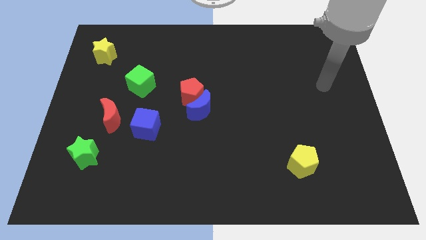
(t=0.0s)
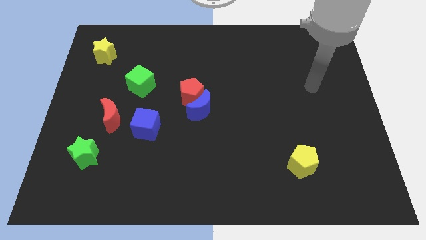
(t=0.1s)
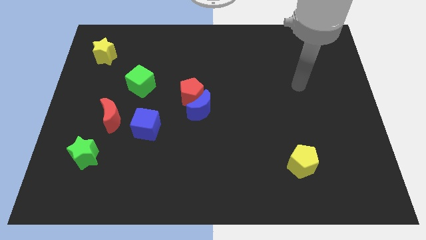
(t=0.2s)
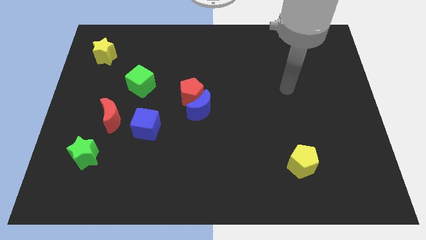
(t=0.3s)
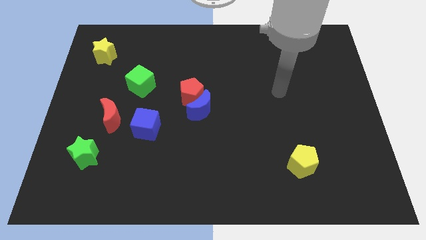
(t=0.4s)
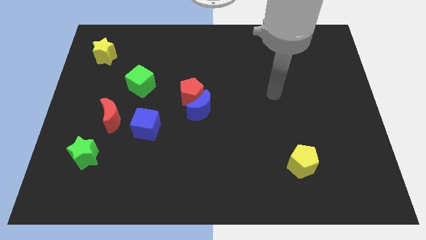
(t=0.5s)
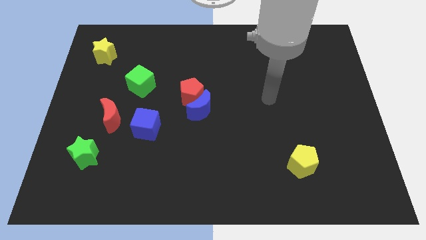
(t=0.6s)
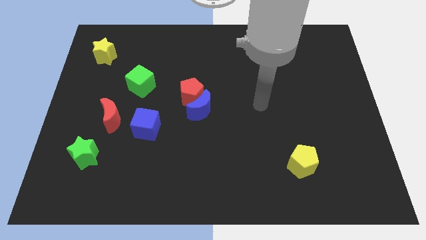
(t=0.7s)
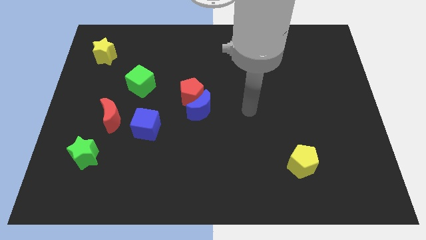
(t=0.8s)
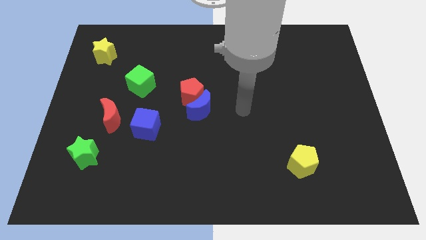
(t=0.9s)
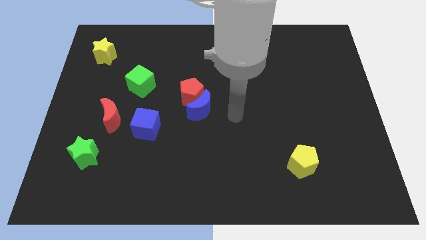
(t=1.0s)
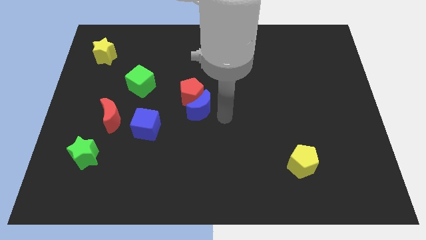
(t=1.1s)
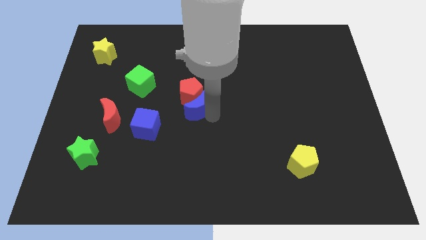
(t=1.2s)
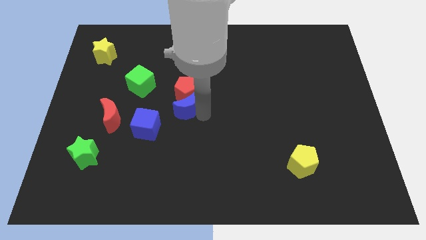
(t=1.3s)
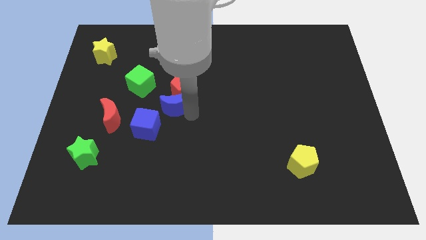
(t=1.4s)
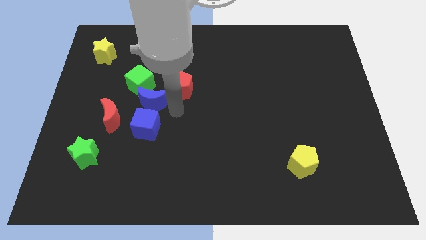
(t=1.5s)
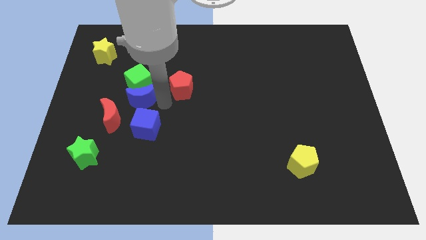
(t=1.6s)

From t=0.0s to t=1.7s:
move the red pentagon away from the blue moon

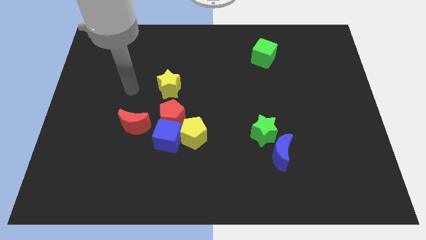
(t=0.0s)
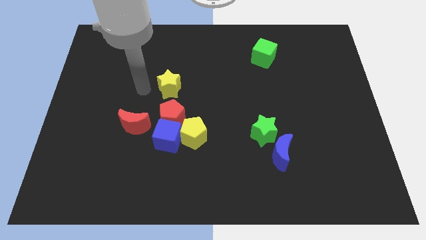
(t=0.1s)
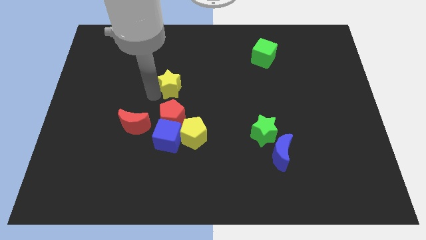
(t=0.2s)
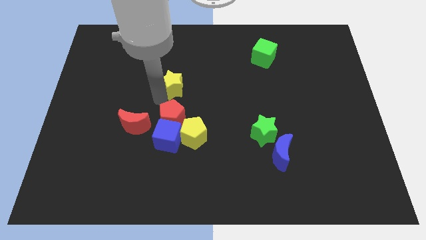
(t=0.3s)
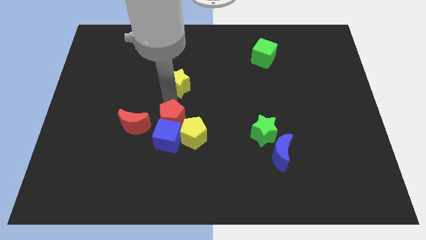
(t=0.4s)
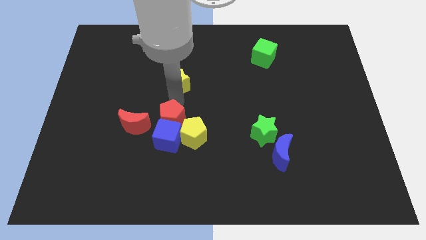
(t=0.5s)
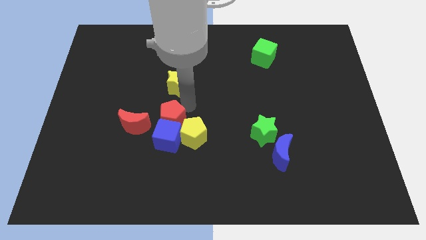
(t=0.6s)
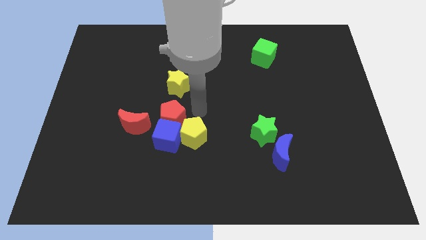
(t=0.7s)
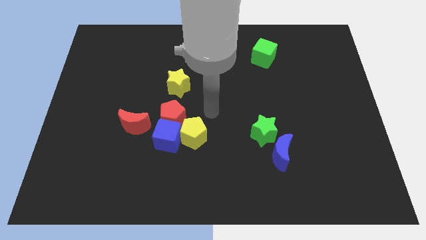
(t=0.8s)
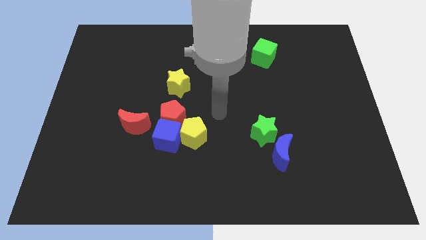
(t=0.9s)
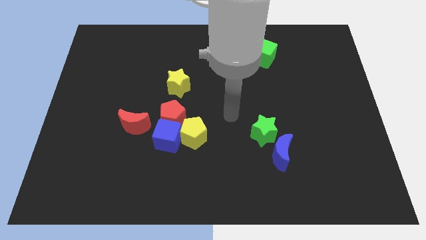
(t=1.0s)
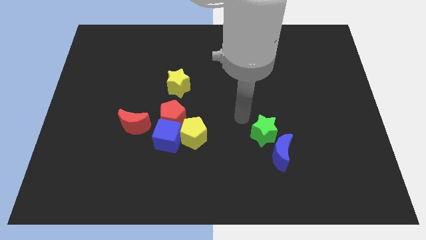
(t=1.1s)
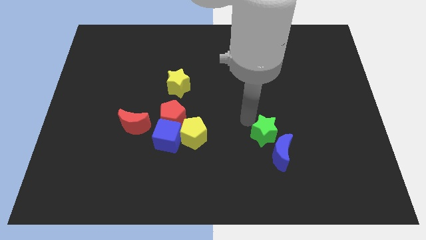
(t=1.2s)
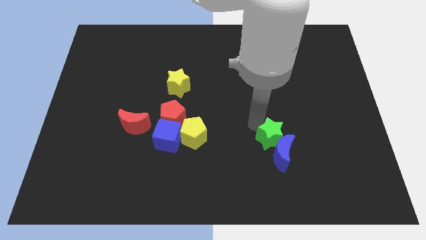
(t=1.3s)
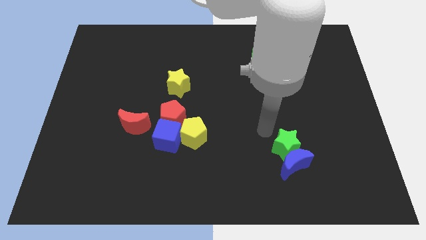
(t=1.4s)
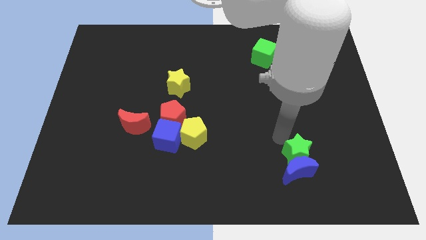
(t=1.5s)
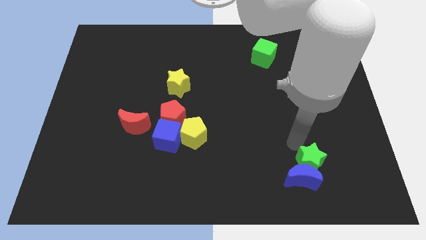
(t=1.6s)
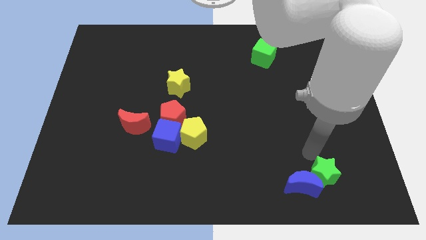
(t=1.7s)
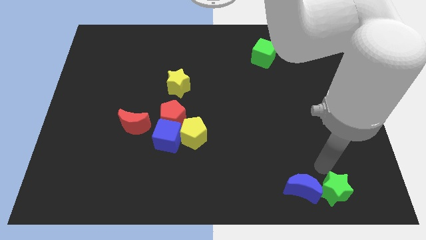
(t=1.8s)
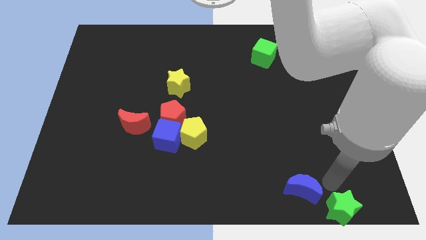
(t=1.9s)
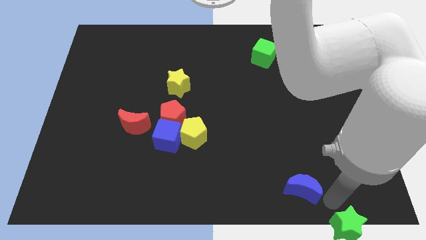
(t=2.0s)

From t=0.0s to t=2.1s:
separate the blue moon from the green star

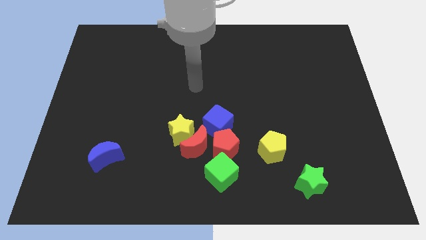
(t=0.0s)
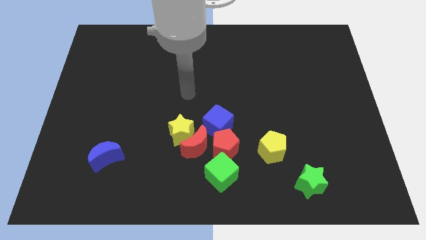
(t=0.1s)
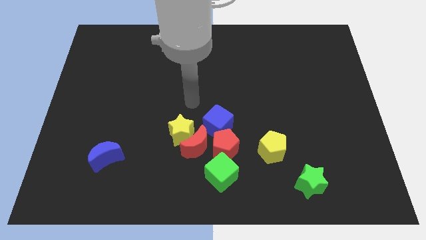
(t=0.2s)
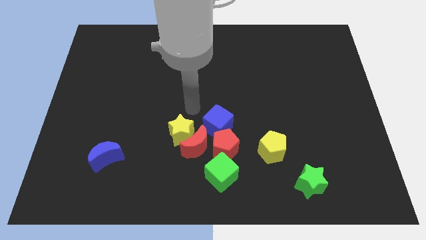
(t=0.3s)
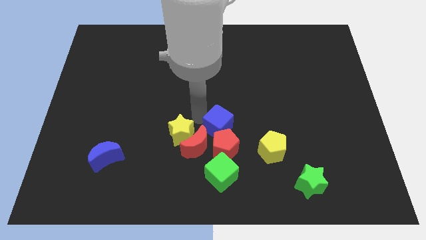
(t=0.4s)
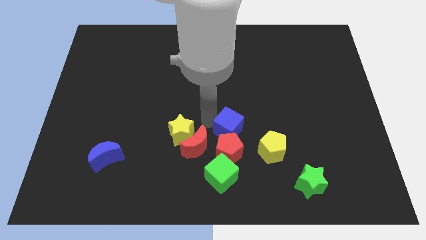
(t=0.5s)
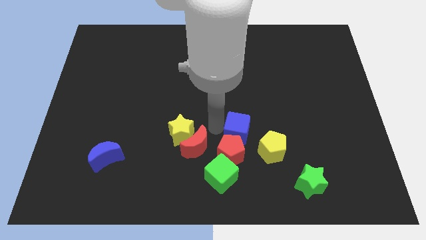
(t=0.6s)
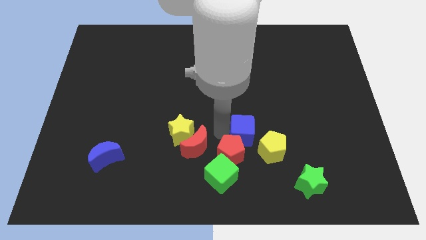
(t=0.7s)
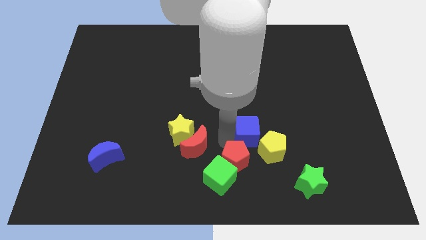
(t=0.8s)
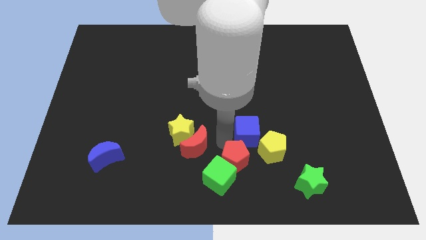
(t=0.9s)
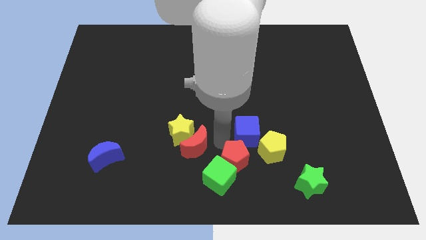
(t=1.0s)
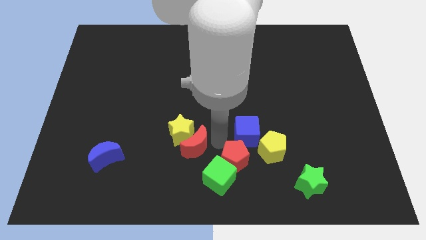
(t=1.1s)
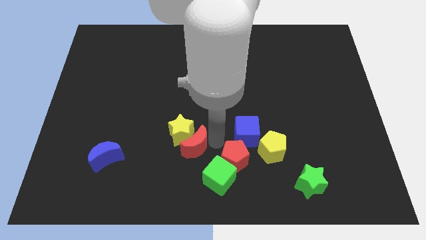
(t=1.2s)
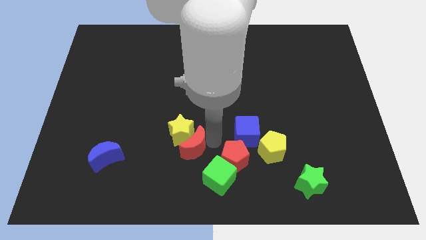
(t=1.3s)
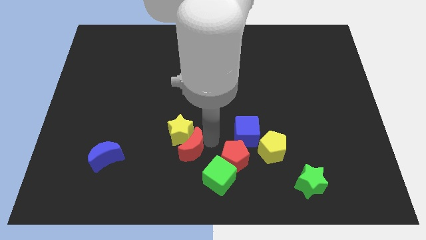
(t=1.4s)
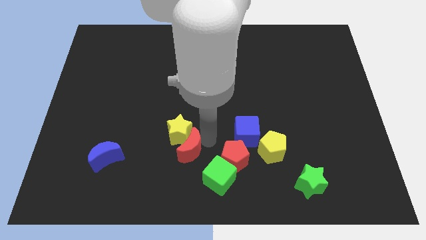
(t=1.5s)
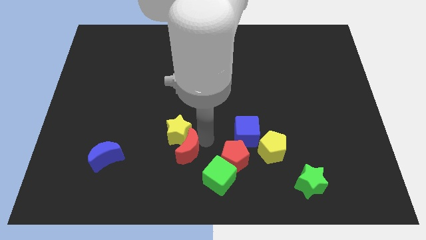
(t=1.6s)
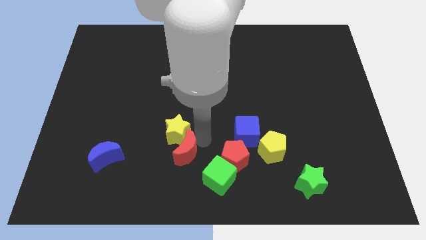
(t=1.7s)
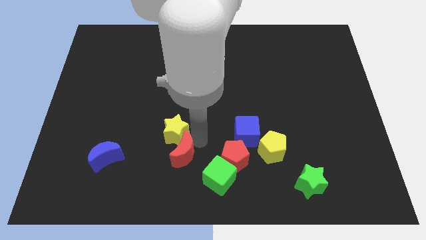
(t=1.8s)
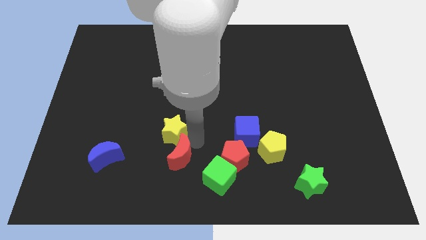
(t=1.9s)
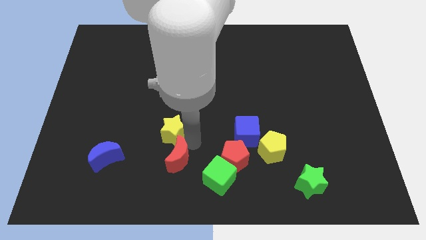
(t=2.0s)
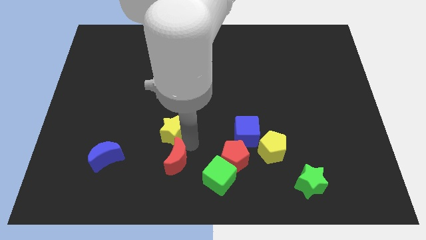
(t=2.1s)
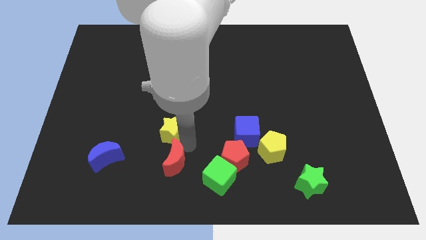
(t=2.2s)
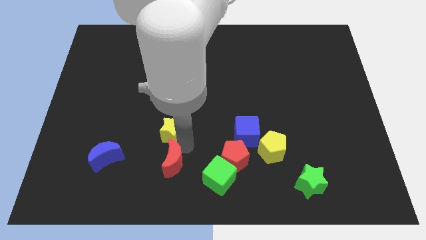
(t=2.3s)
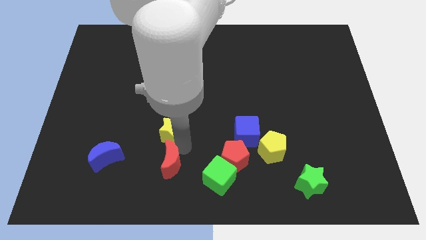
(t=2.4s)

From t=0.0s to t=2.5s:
pull the red moon apart from the clump

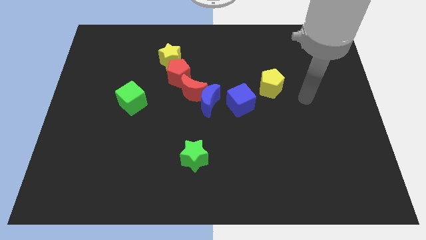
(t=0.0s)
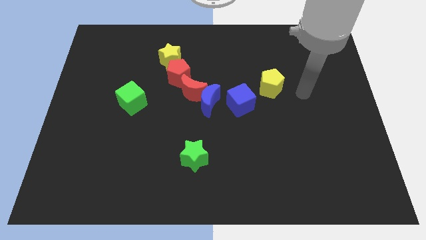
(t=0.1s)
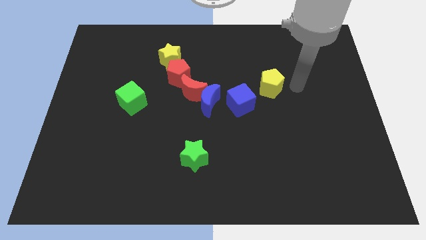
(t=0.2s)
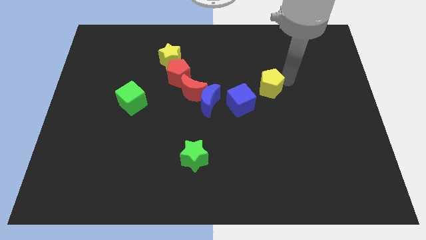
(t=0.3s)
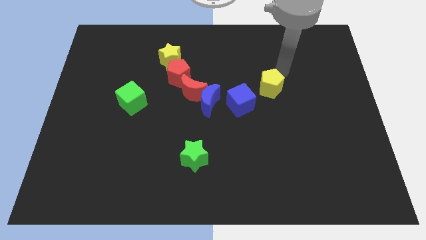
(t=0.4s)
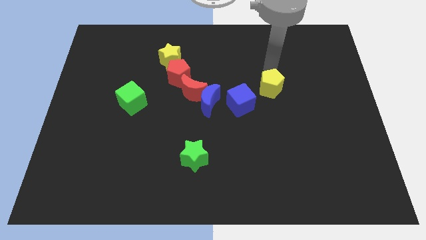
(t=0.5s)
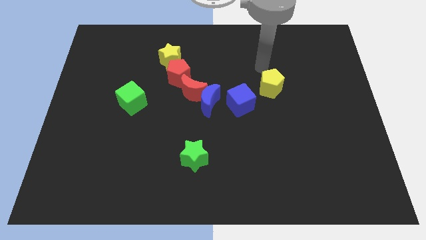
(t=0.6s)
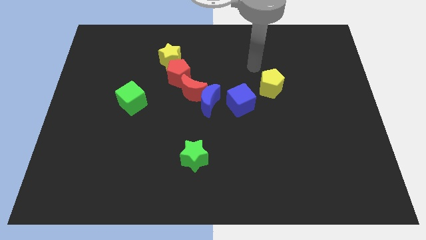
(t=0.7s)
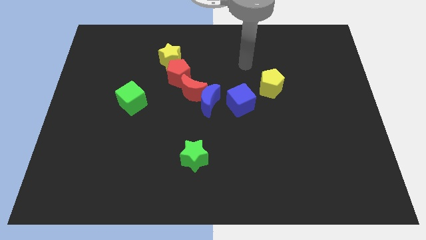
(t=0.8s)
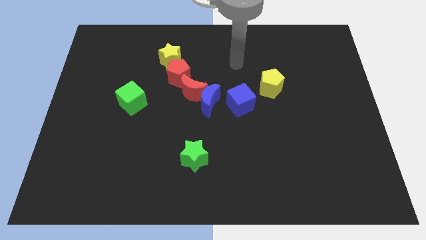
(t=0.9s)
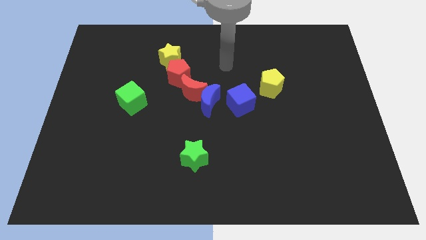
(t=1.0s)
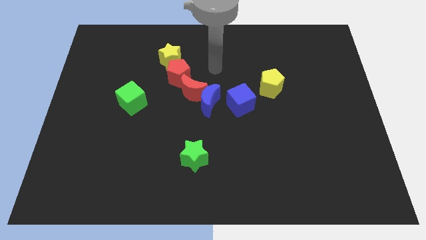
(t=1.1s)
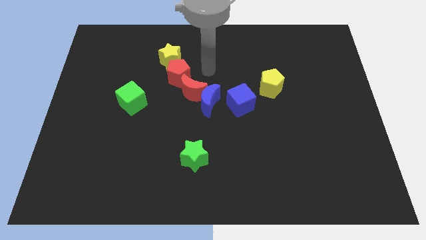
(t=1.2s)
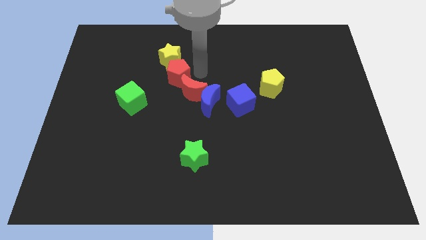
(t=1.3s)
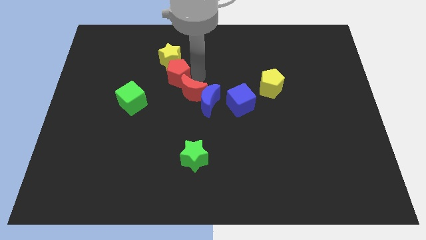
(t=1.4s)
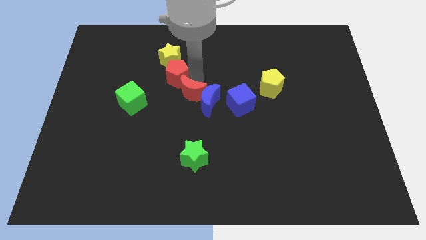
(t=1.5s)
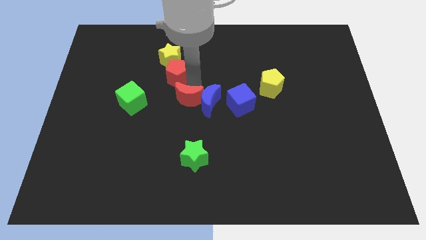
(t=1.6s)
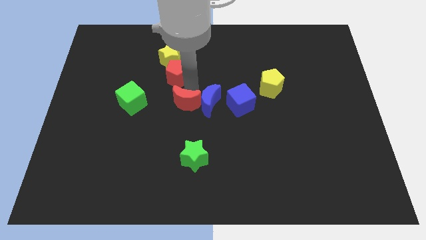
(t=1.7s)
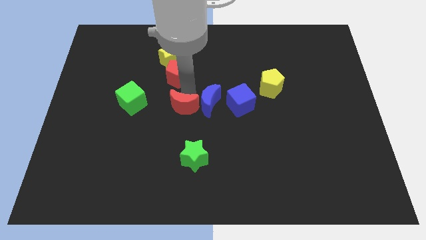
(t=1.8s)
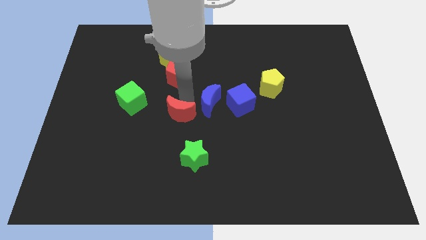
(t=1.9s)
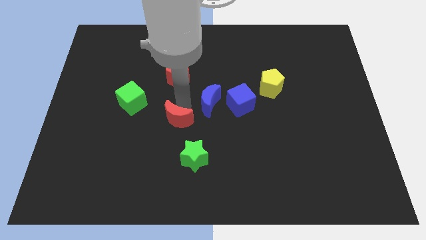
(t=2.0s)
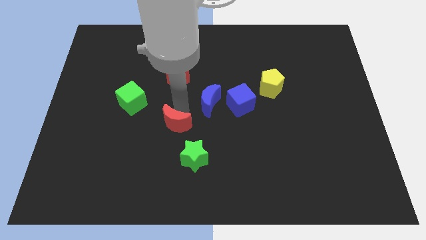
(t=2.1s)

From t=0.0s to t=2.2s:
move the red moon away from the blue moon and red pentagon

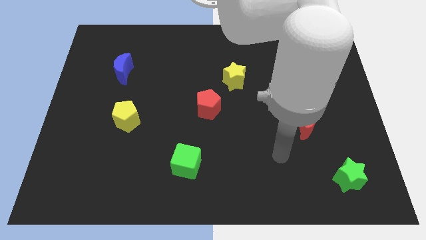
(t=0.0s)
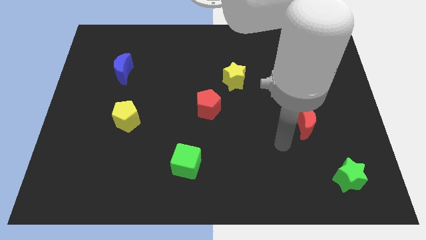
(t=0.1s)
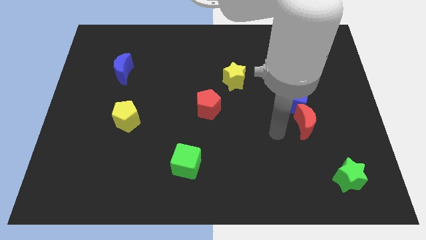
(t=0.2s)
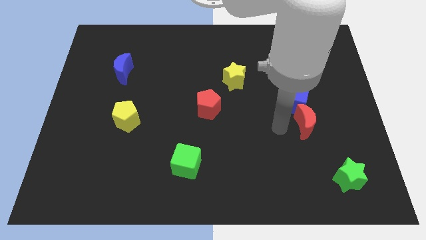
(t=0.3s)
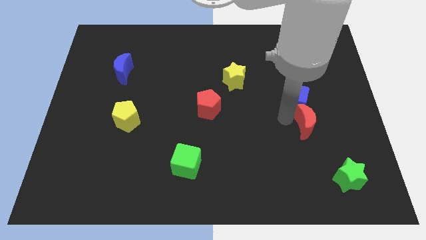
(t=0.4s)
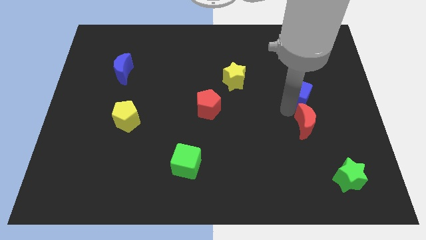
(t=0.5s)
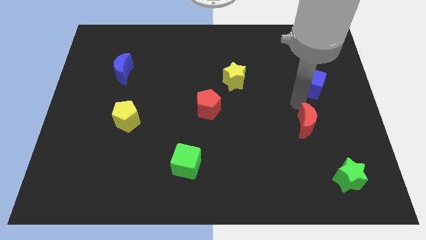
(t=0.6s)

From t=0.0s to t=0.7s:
move the red moon away from the blue cube
